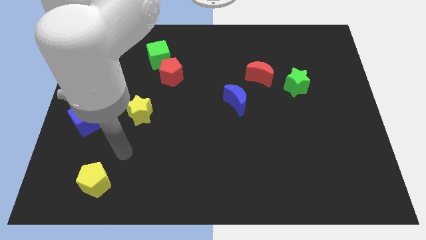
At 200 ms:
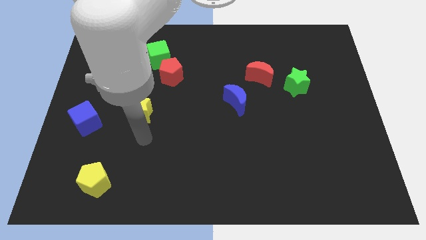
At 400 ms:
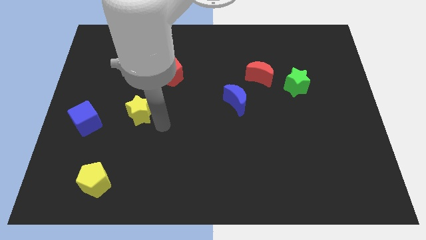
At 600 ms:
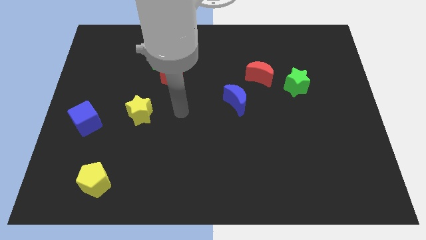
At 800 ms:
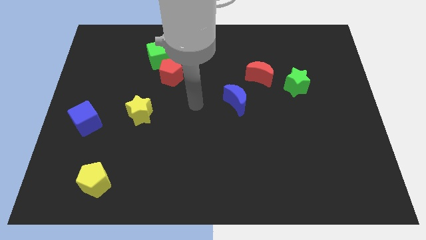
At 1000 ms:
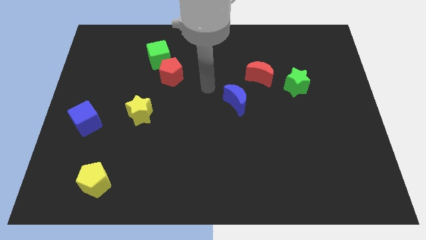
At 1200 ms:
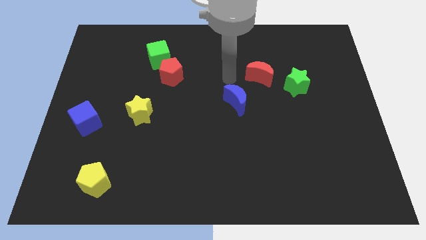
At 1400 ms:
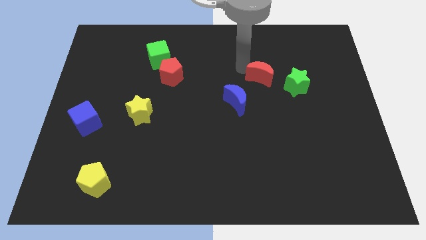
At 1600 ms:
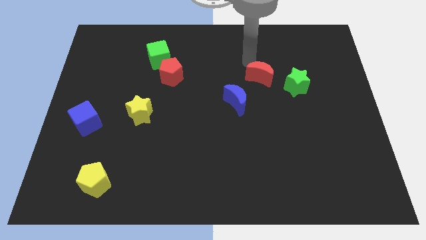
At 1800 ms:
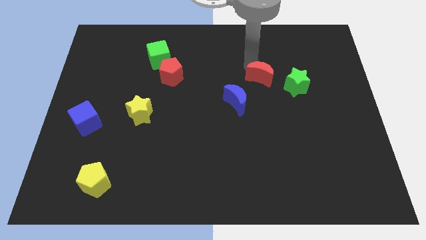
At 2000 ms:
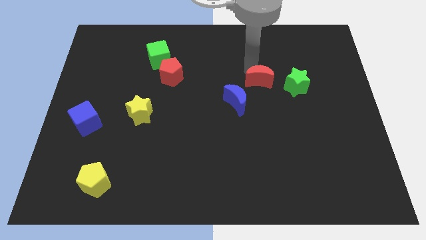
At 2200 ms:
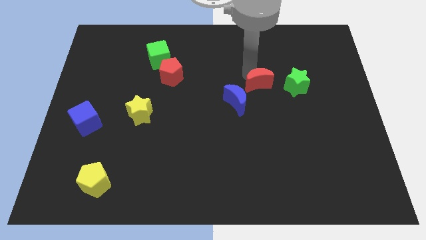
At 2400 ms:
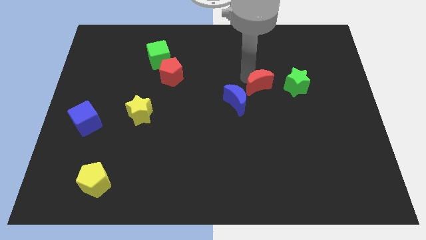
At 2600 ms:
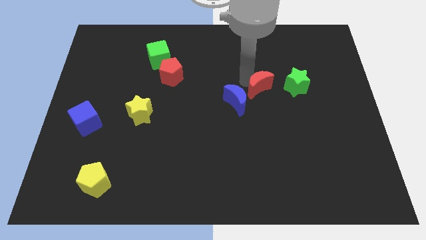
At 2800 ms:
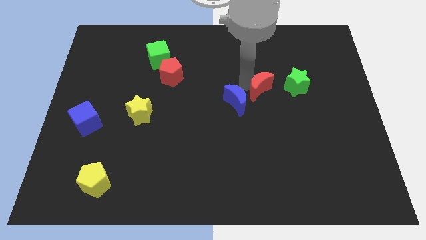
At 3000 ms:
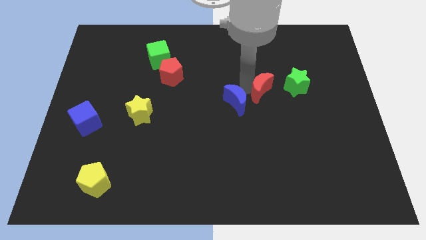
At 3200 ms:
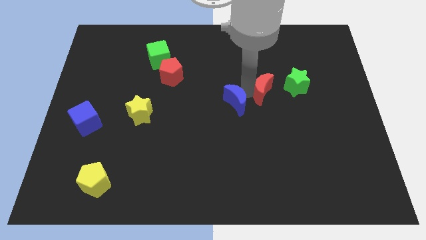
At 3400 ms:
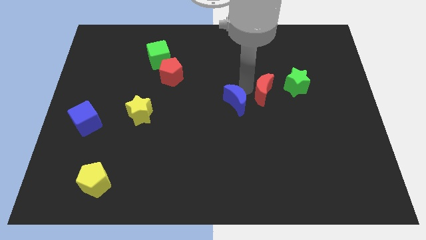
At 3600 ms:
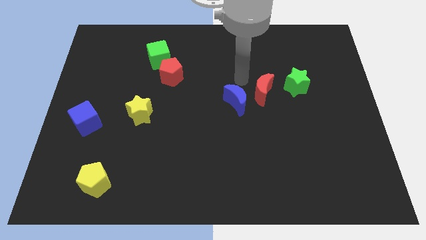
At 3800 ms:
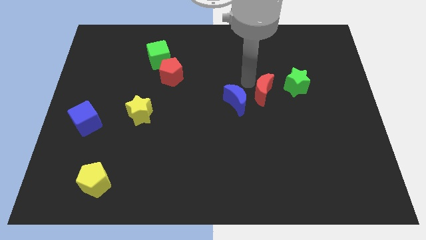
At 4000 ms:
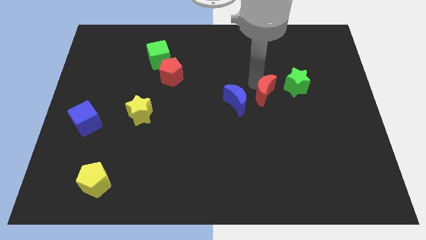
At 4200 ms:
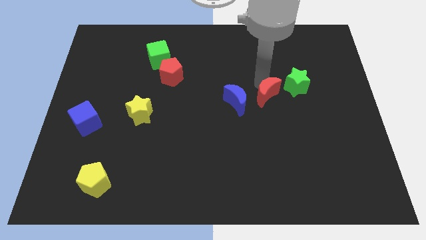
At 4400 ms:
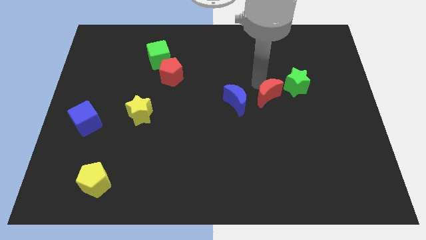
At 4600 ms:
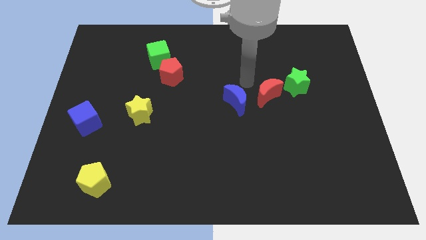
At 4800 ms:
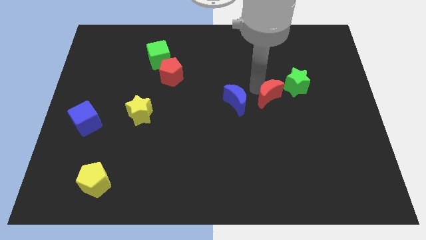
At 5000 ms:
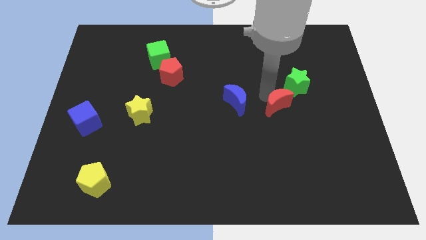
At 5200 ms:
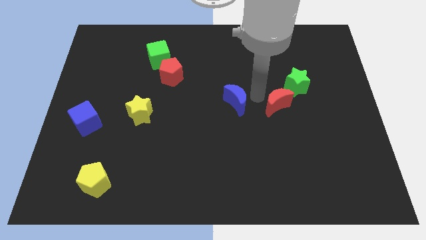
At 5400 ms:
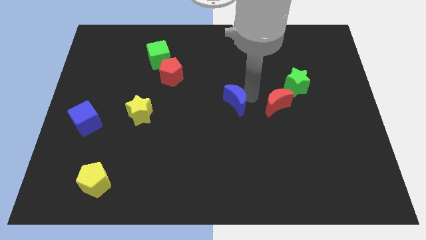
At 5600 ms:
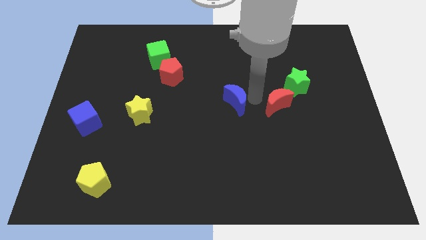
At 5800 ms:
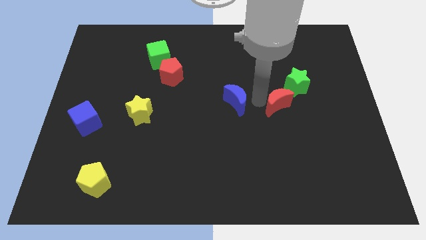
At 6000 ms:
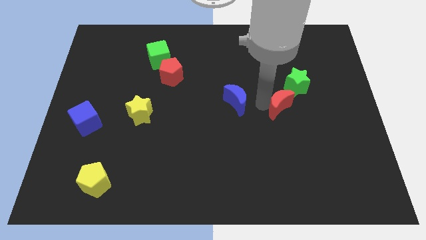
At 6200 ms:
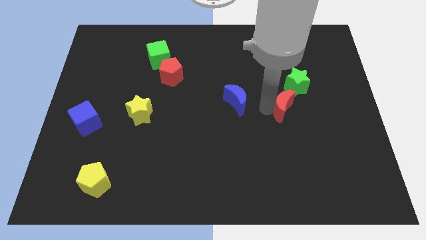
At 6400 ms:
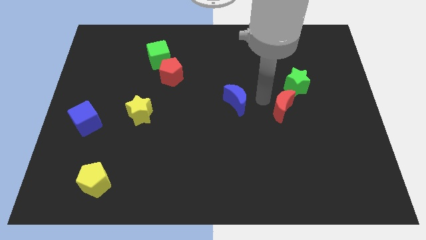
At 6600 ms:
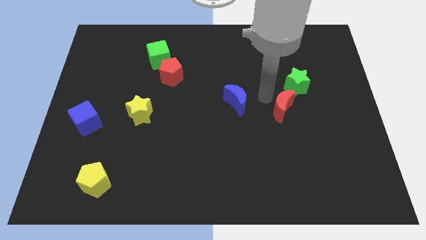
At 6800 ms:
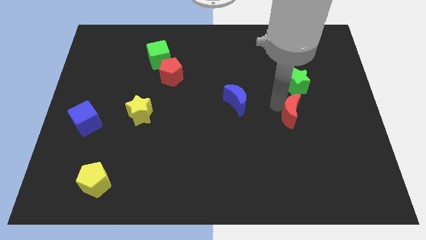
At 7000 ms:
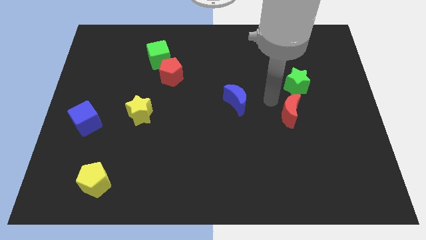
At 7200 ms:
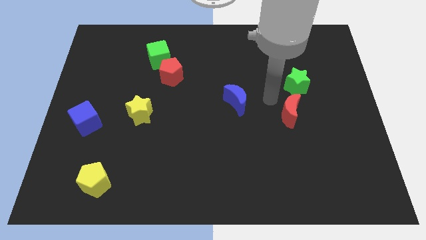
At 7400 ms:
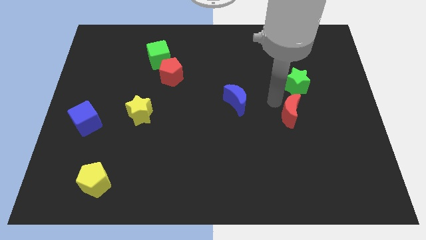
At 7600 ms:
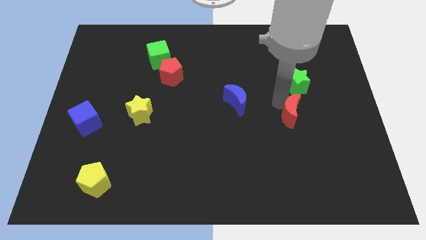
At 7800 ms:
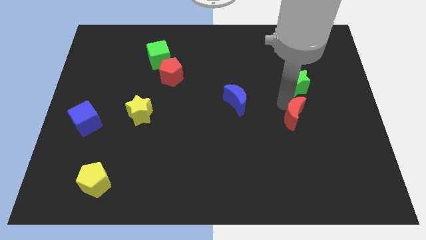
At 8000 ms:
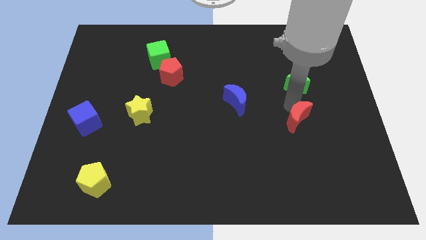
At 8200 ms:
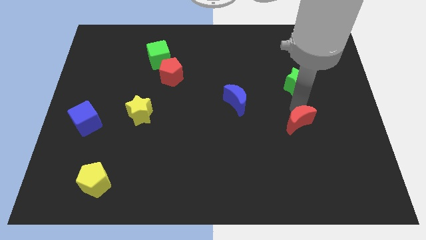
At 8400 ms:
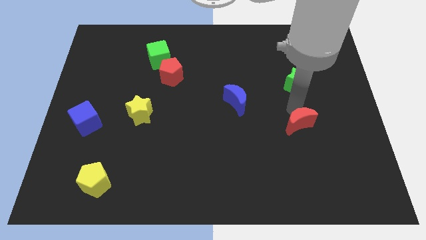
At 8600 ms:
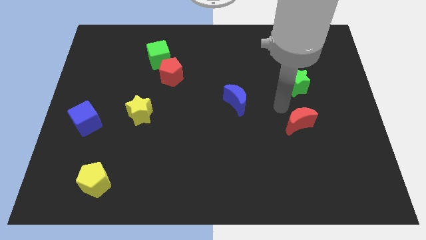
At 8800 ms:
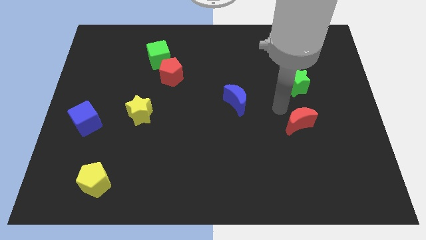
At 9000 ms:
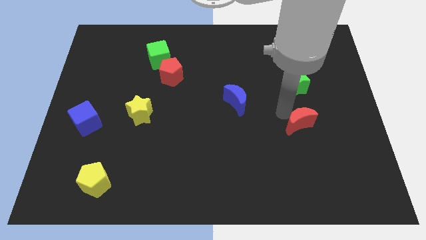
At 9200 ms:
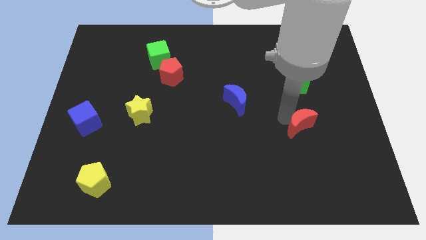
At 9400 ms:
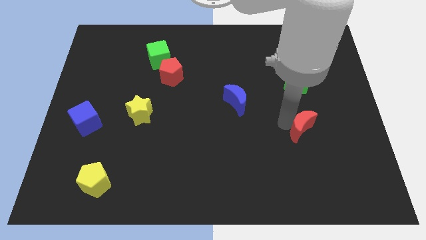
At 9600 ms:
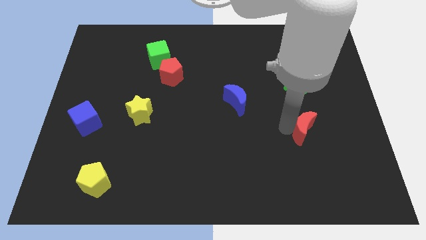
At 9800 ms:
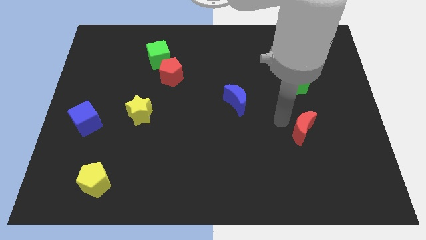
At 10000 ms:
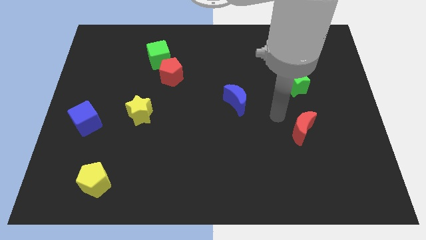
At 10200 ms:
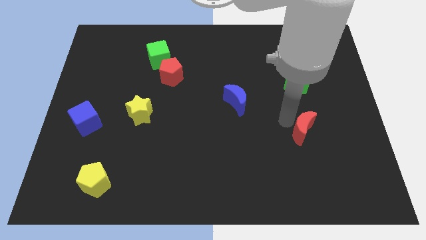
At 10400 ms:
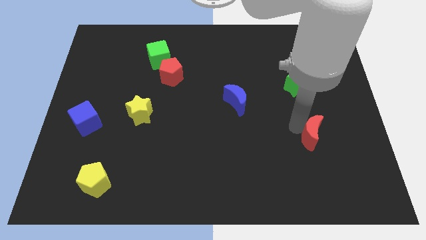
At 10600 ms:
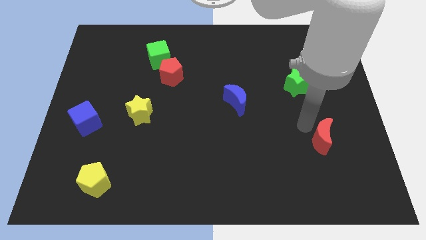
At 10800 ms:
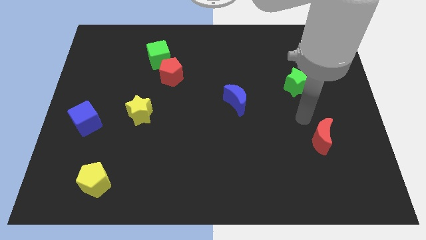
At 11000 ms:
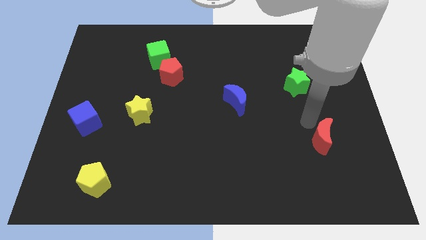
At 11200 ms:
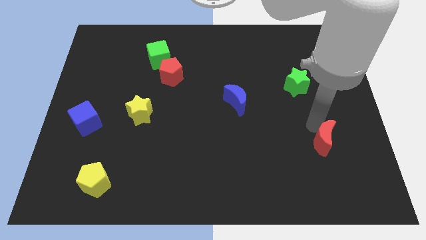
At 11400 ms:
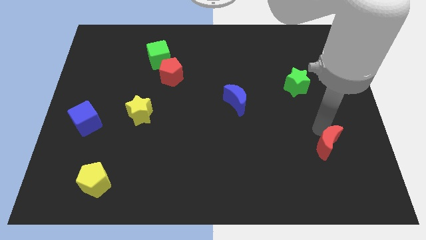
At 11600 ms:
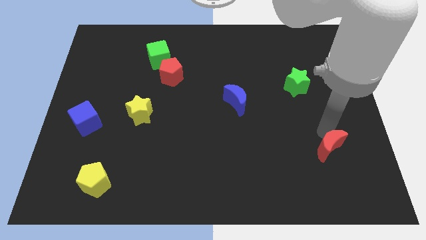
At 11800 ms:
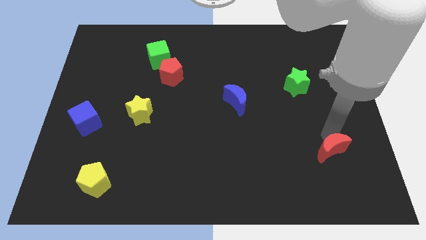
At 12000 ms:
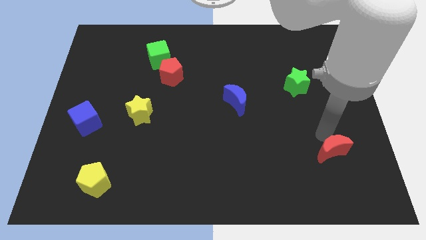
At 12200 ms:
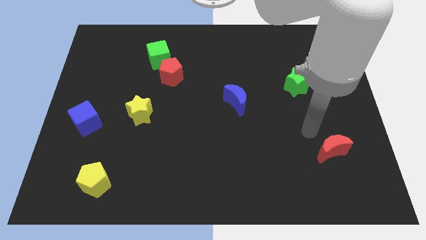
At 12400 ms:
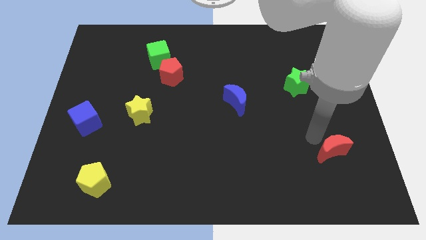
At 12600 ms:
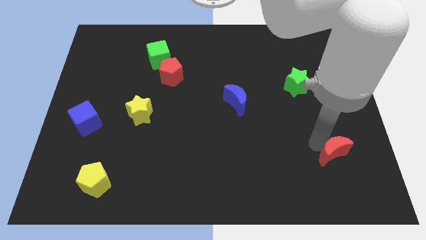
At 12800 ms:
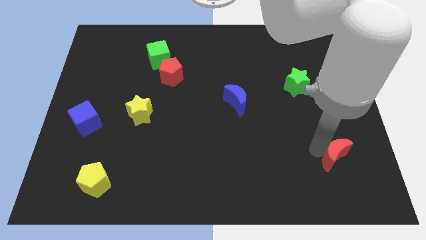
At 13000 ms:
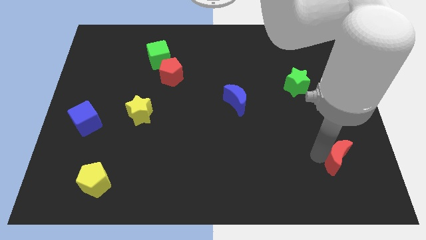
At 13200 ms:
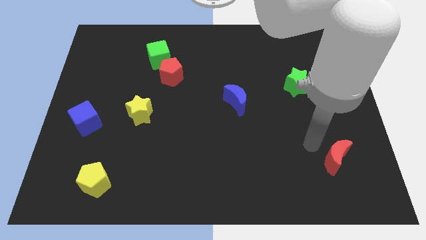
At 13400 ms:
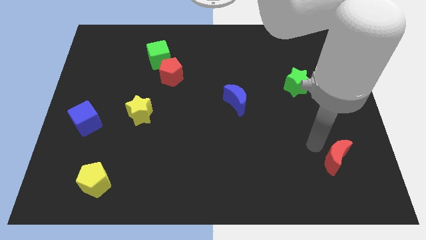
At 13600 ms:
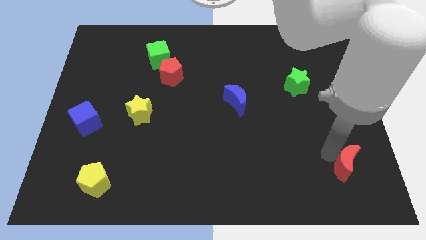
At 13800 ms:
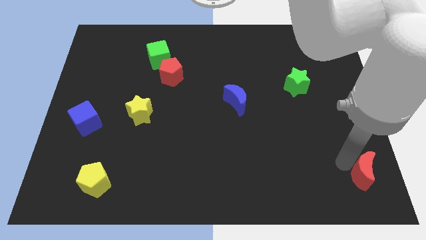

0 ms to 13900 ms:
slide the red moon to the bottom right
